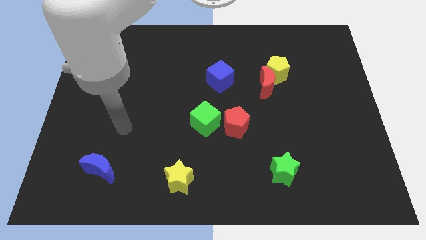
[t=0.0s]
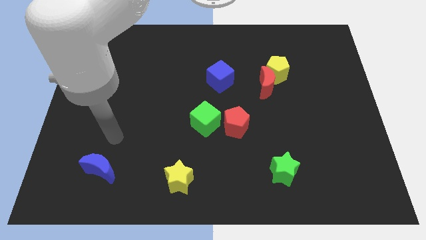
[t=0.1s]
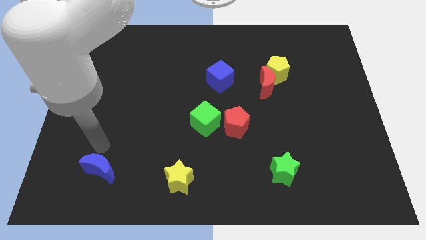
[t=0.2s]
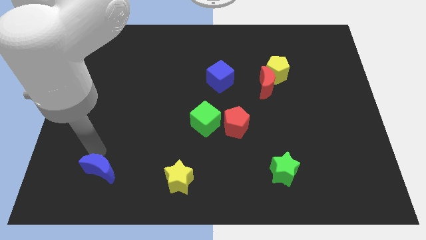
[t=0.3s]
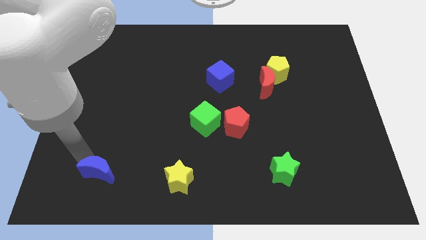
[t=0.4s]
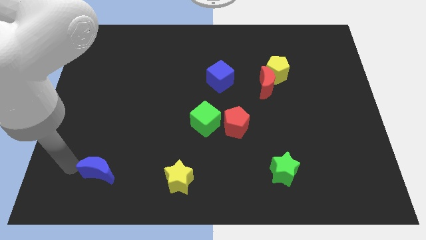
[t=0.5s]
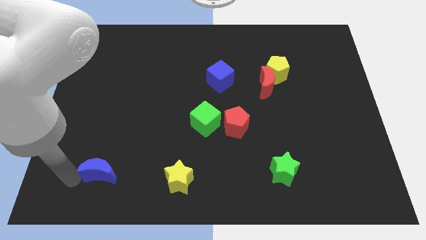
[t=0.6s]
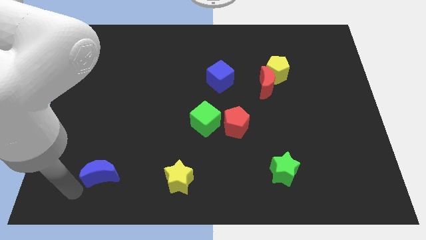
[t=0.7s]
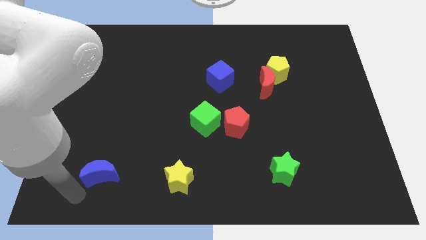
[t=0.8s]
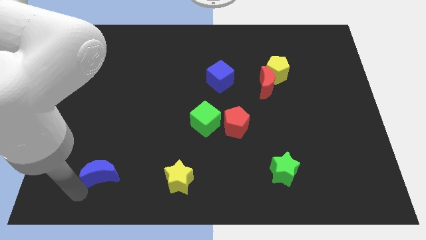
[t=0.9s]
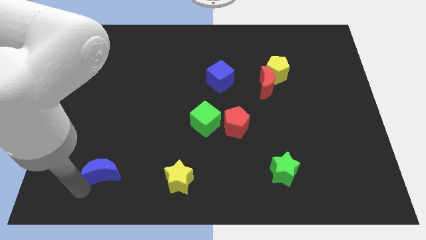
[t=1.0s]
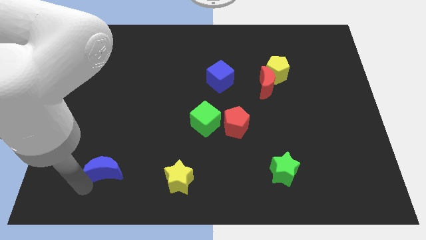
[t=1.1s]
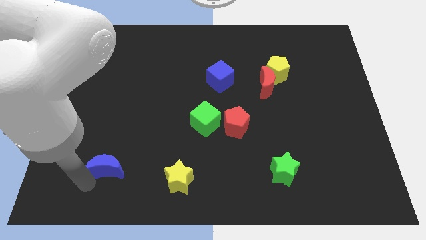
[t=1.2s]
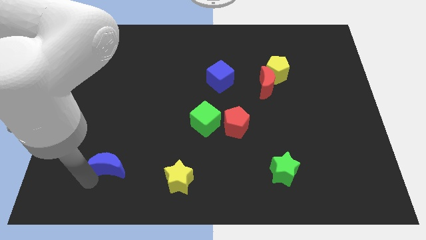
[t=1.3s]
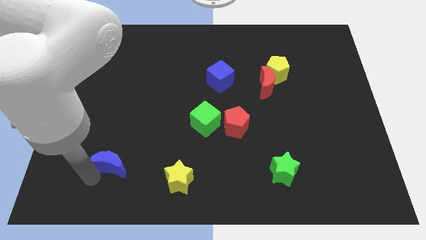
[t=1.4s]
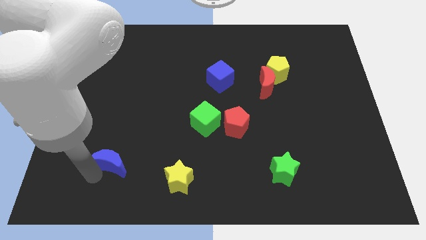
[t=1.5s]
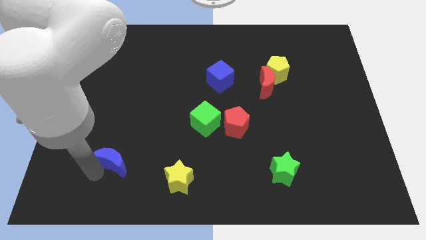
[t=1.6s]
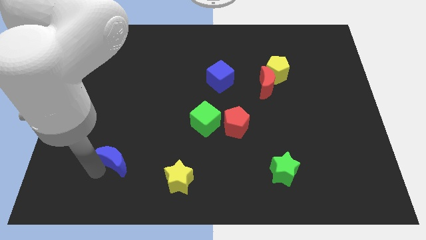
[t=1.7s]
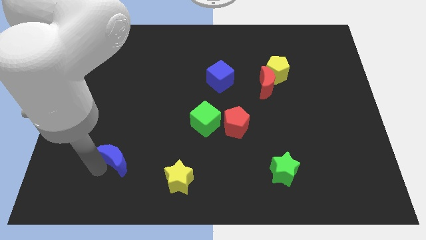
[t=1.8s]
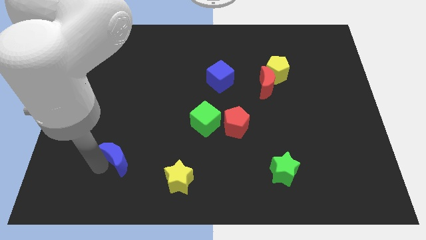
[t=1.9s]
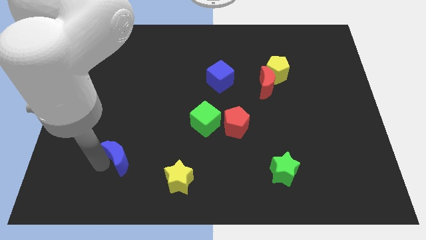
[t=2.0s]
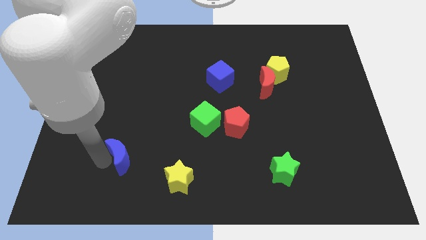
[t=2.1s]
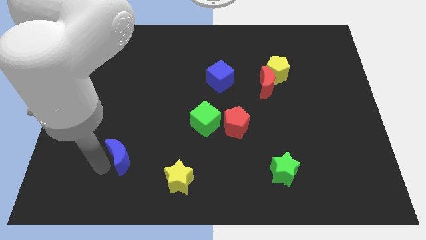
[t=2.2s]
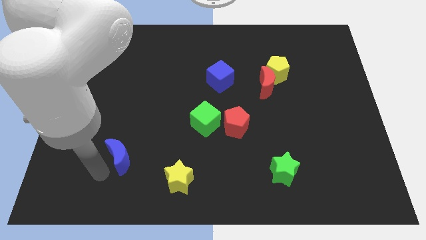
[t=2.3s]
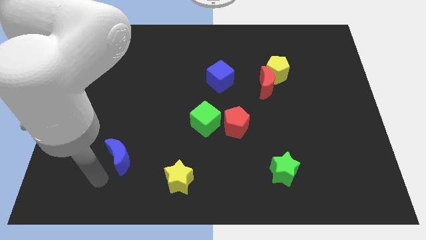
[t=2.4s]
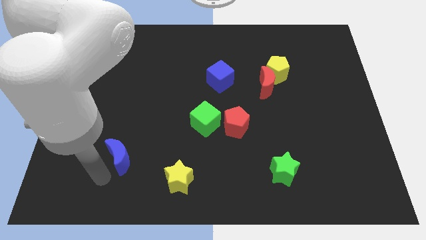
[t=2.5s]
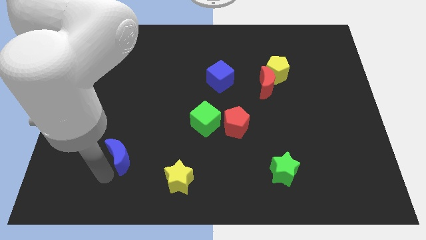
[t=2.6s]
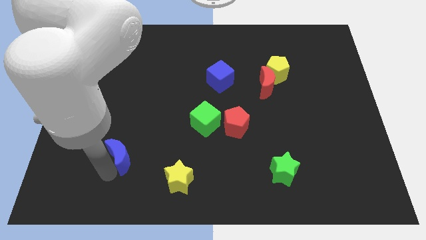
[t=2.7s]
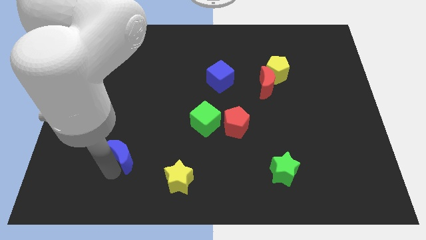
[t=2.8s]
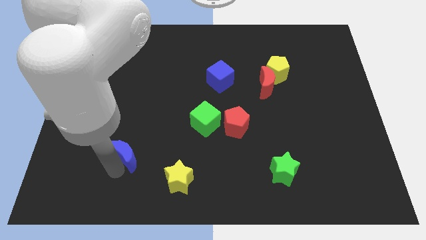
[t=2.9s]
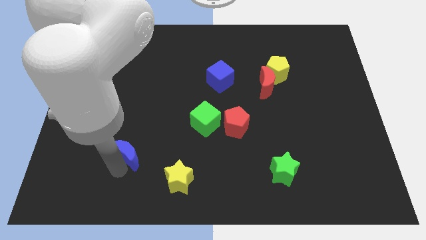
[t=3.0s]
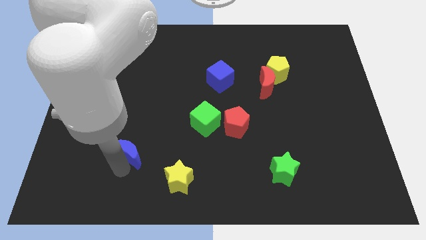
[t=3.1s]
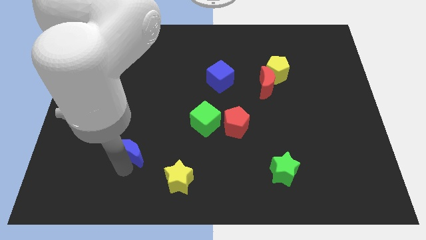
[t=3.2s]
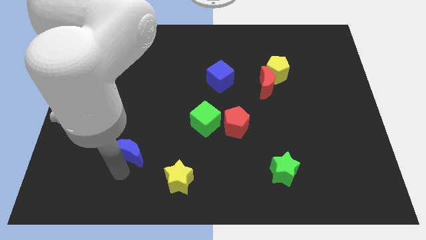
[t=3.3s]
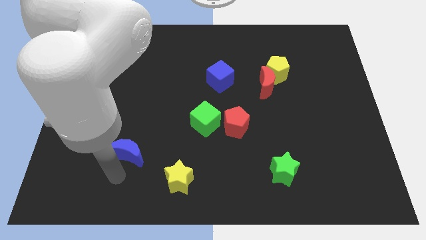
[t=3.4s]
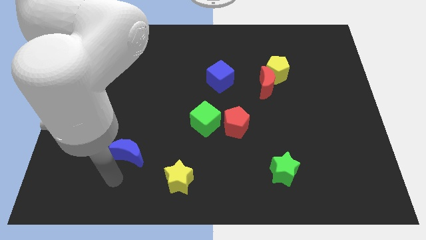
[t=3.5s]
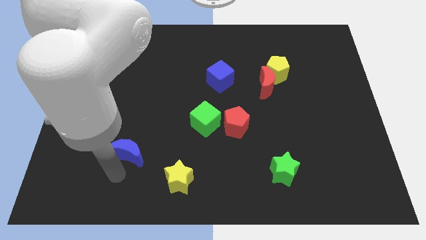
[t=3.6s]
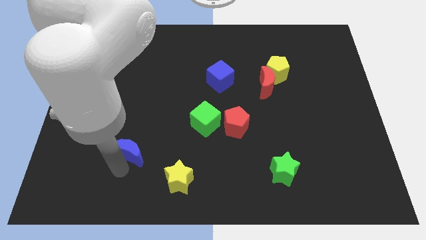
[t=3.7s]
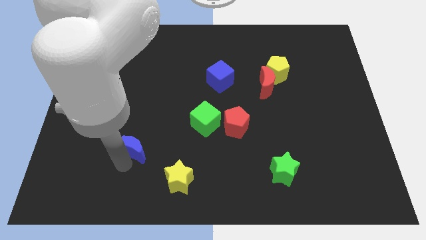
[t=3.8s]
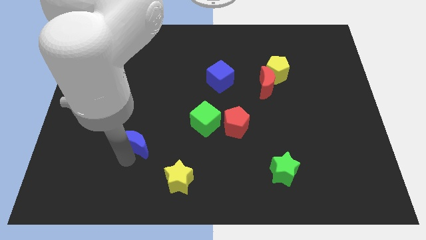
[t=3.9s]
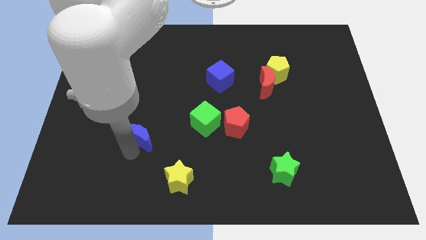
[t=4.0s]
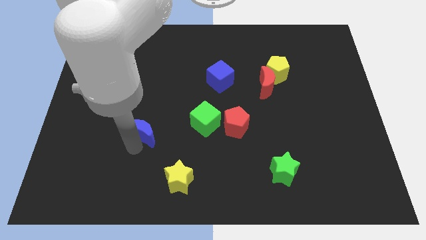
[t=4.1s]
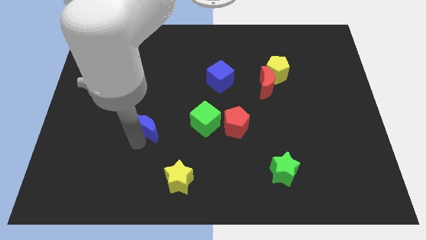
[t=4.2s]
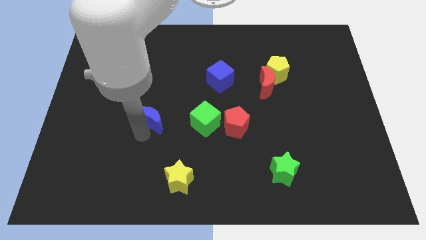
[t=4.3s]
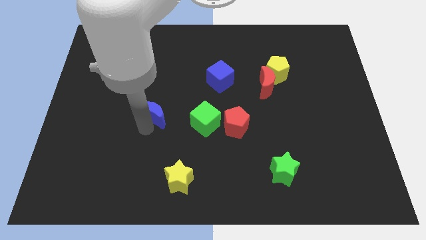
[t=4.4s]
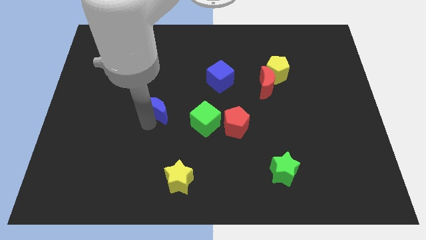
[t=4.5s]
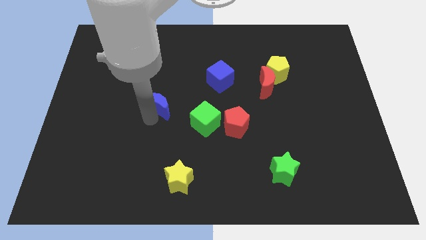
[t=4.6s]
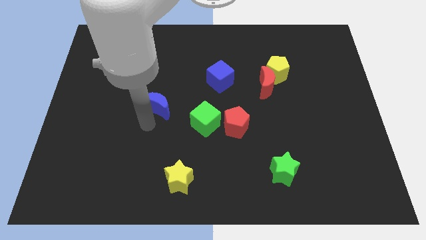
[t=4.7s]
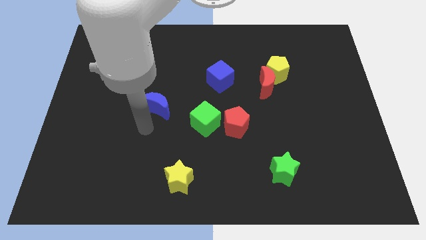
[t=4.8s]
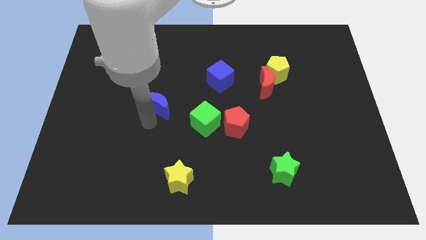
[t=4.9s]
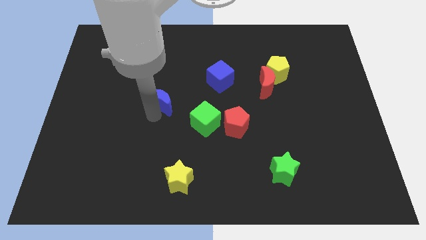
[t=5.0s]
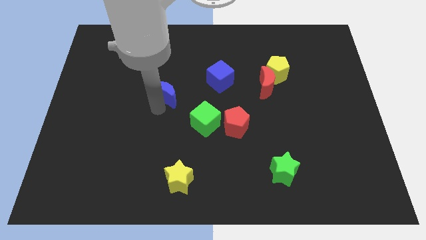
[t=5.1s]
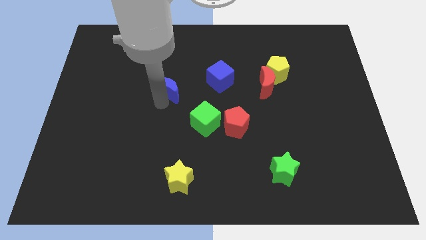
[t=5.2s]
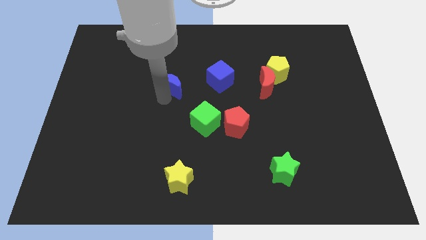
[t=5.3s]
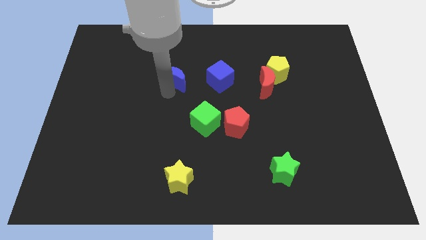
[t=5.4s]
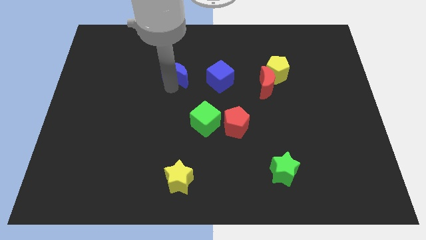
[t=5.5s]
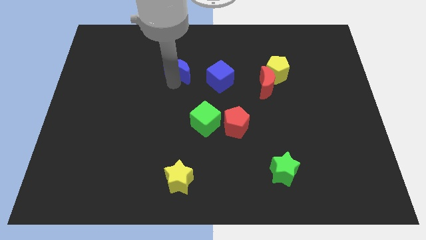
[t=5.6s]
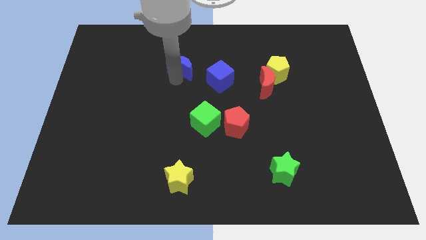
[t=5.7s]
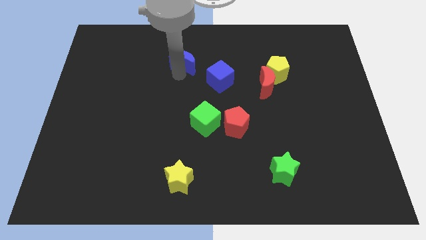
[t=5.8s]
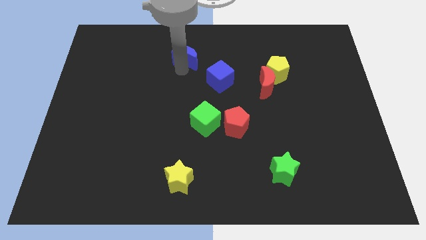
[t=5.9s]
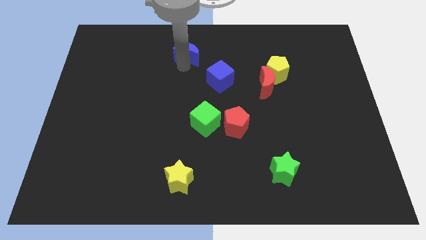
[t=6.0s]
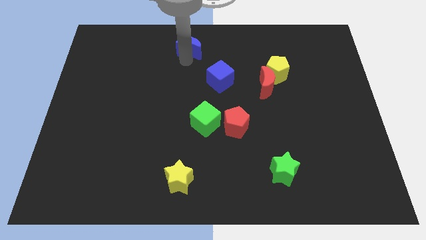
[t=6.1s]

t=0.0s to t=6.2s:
slide the blue moon to the towards your base

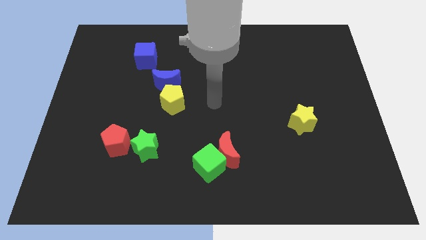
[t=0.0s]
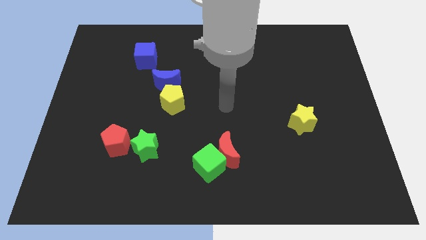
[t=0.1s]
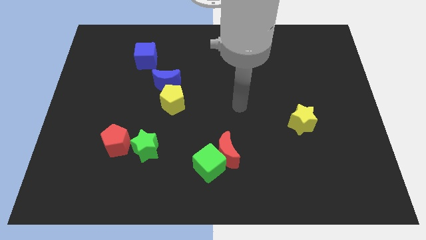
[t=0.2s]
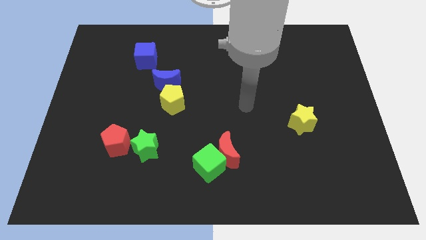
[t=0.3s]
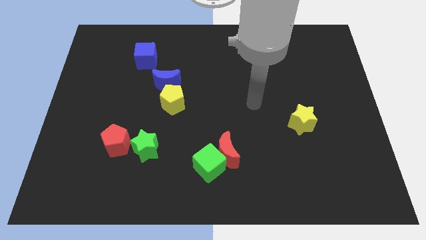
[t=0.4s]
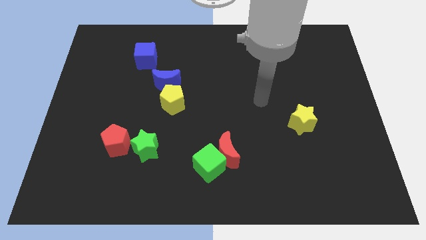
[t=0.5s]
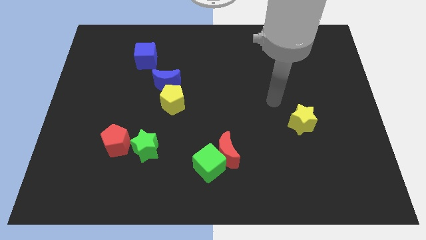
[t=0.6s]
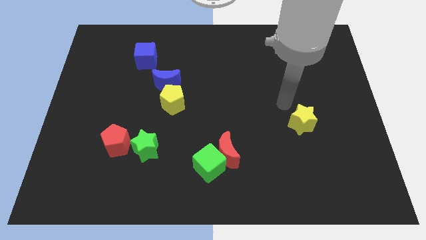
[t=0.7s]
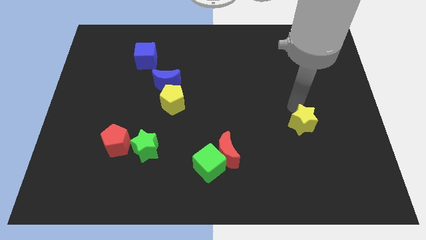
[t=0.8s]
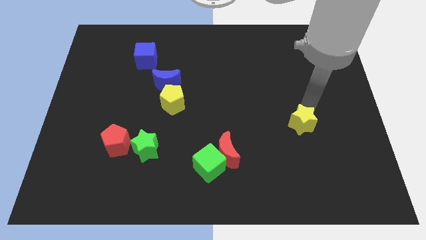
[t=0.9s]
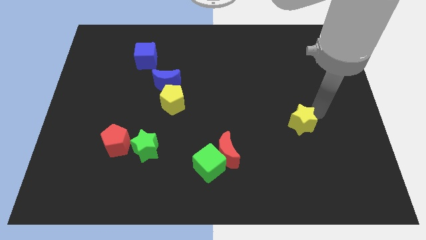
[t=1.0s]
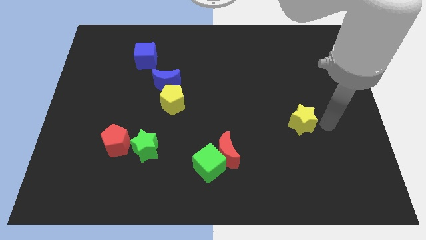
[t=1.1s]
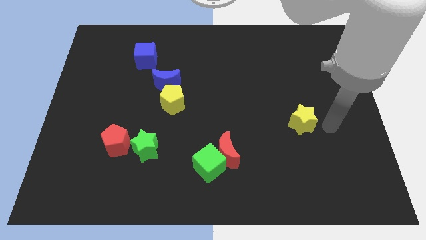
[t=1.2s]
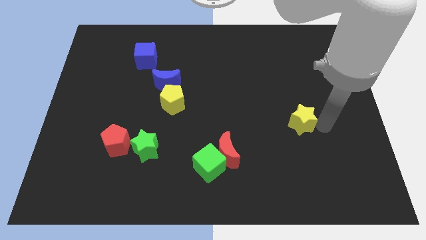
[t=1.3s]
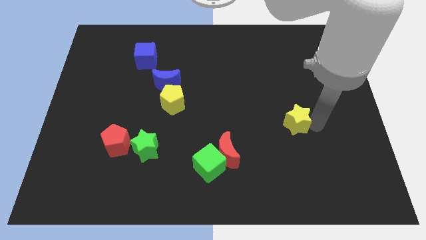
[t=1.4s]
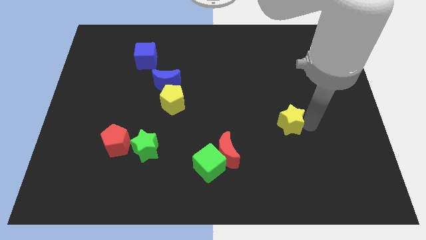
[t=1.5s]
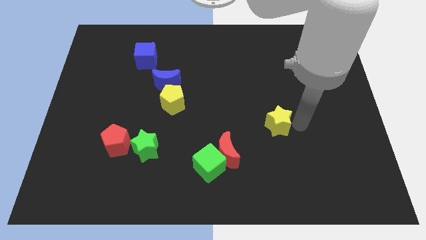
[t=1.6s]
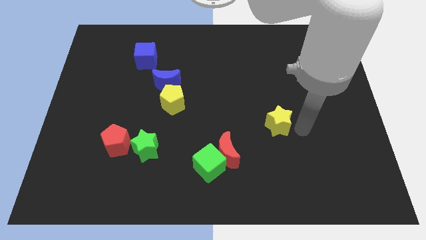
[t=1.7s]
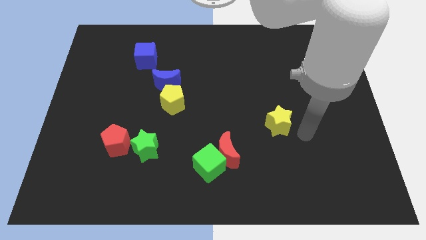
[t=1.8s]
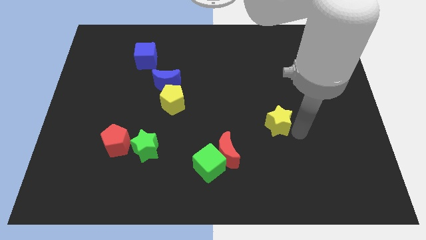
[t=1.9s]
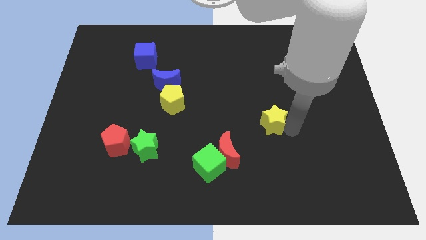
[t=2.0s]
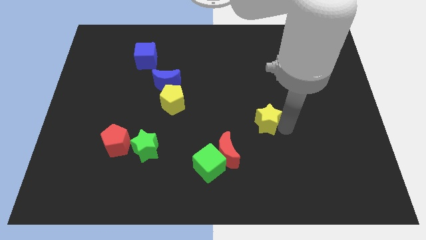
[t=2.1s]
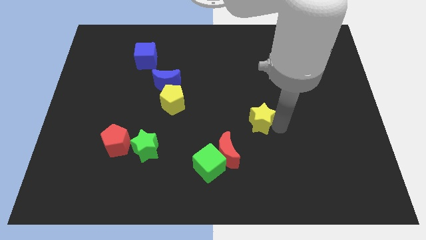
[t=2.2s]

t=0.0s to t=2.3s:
move the yellow star to the middle of the board
